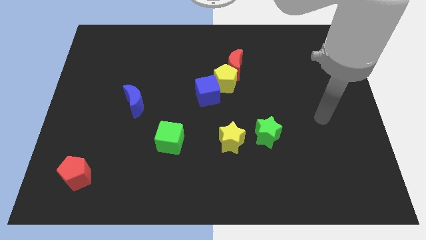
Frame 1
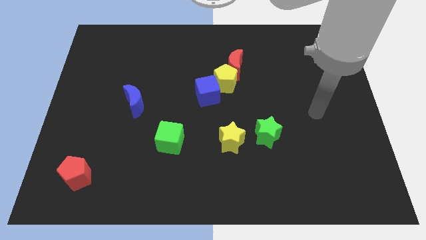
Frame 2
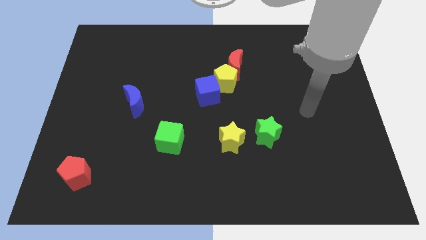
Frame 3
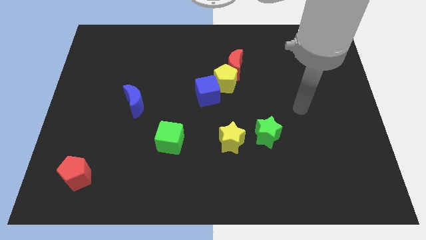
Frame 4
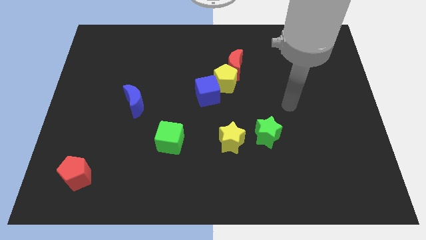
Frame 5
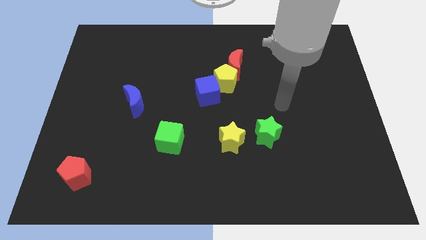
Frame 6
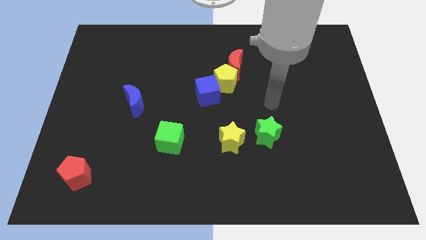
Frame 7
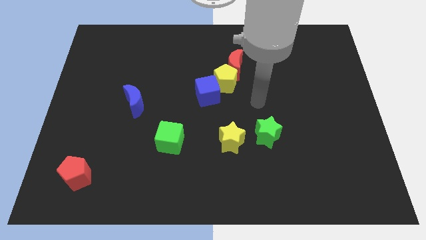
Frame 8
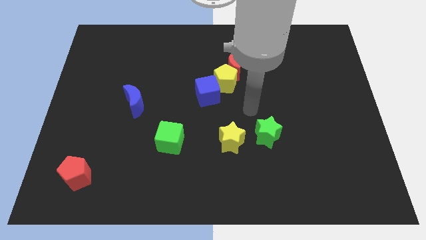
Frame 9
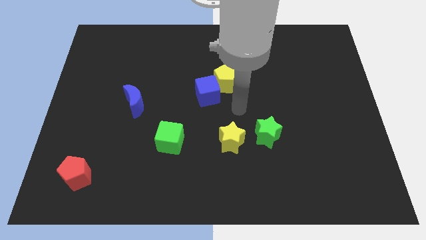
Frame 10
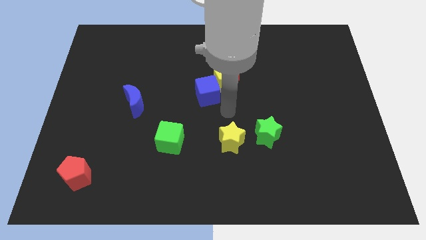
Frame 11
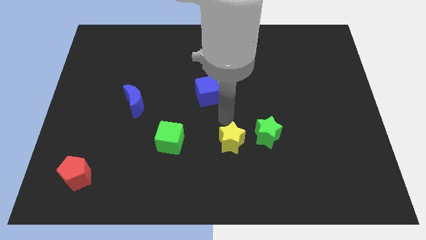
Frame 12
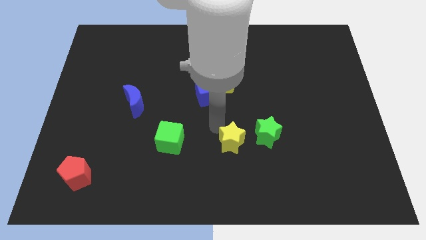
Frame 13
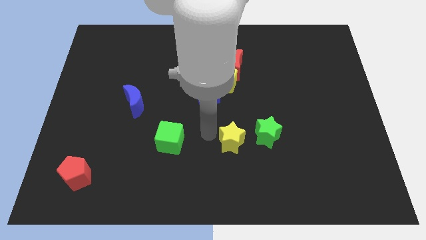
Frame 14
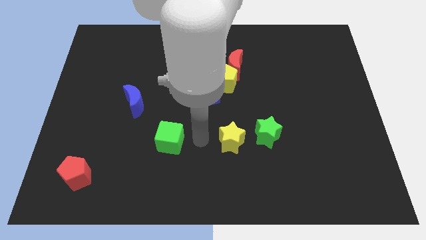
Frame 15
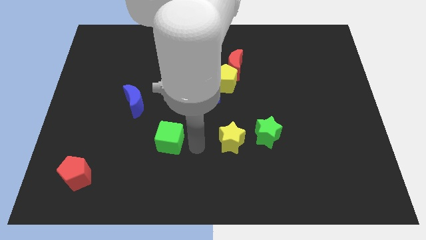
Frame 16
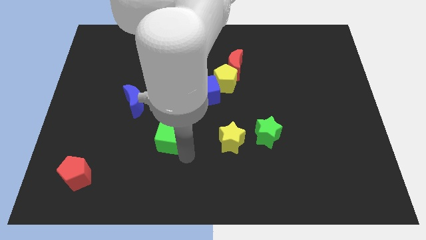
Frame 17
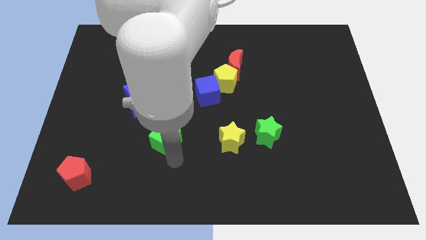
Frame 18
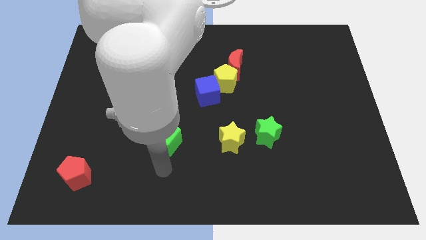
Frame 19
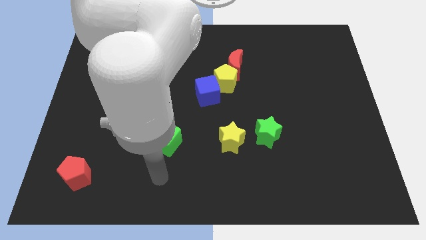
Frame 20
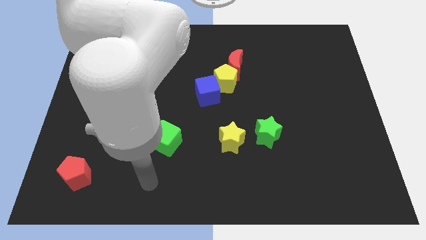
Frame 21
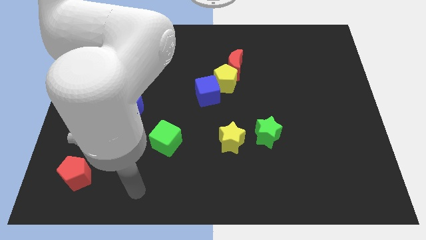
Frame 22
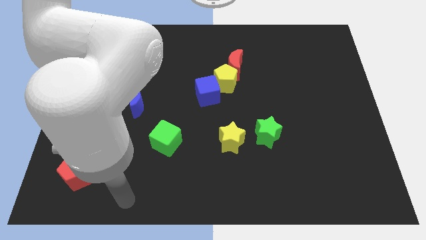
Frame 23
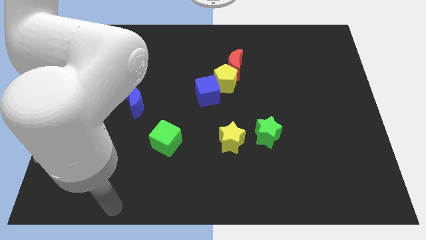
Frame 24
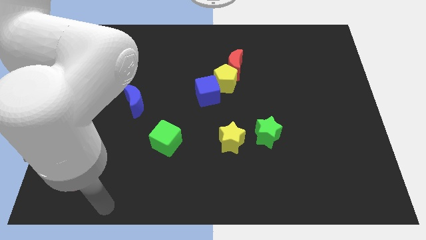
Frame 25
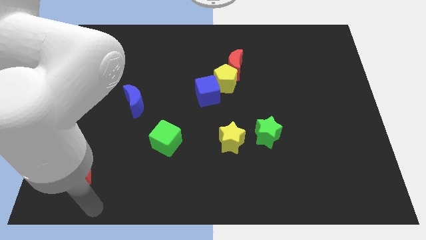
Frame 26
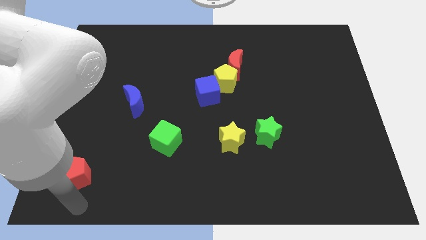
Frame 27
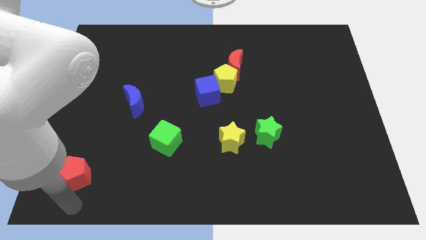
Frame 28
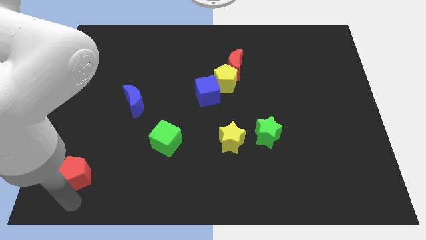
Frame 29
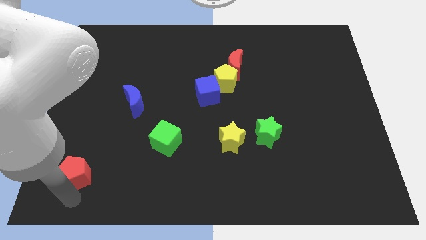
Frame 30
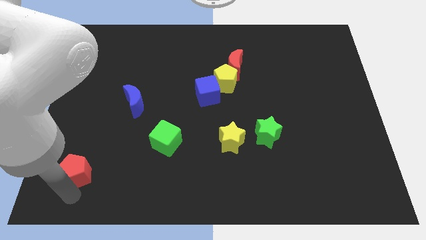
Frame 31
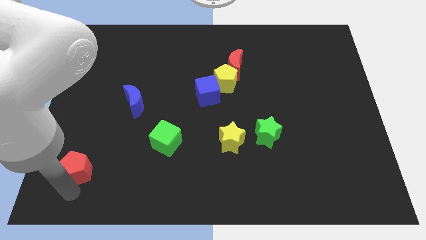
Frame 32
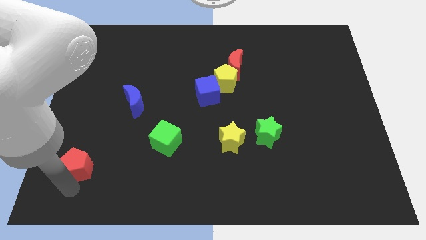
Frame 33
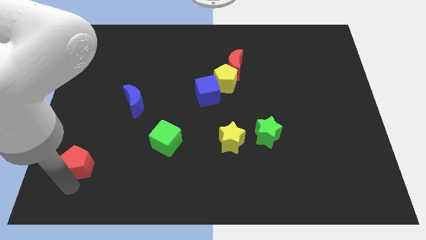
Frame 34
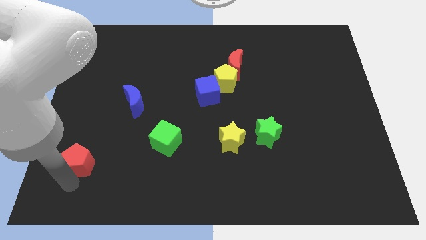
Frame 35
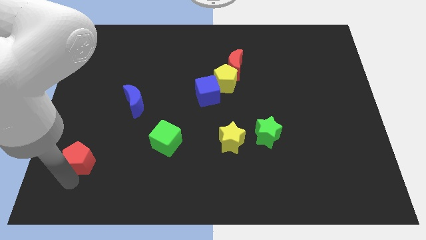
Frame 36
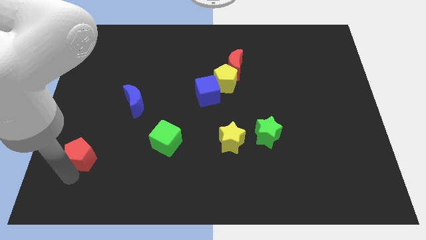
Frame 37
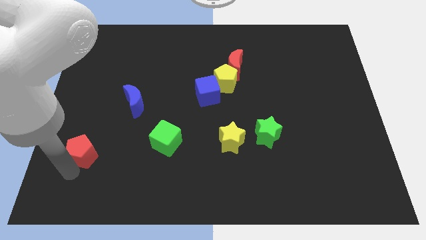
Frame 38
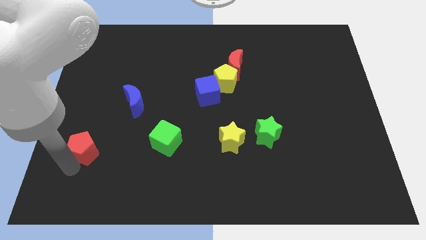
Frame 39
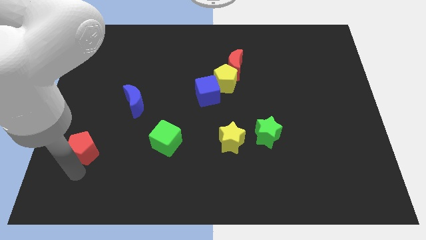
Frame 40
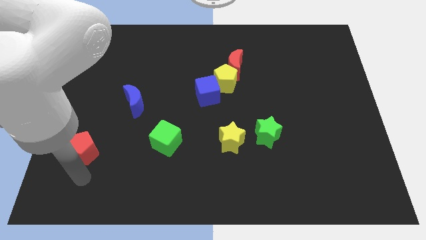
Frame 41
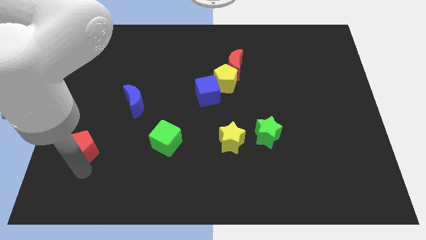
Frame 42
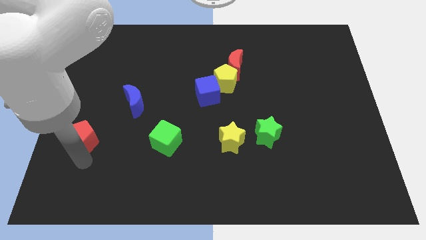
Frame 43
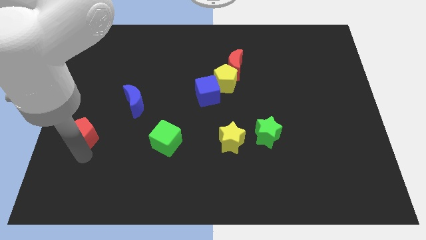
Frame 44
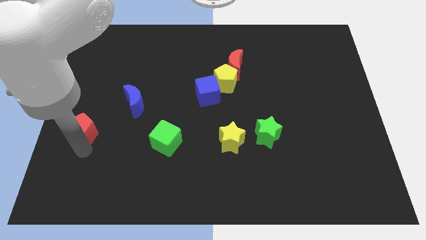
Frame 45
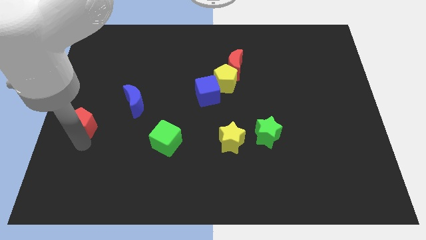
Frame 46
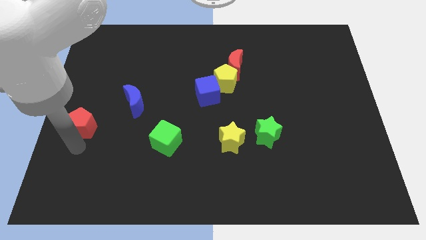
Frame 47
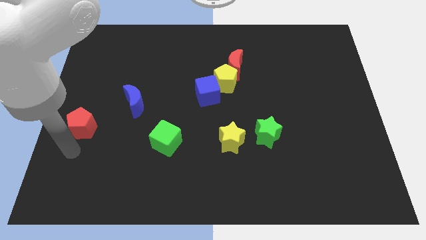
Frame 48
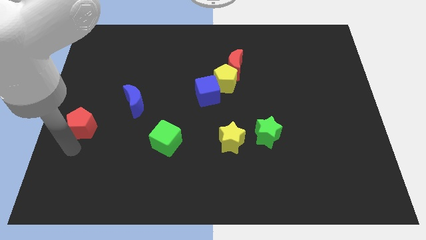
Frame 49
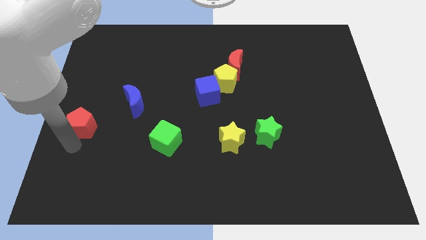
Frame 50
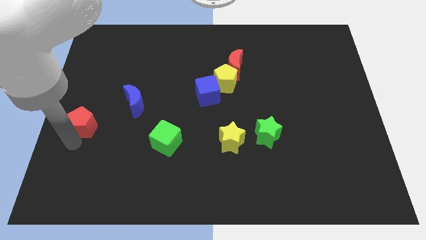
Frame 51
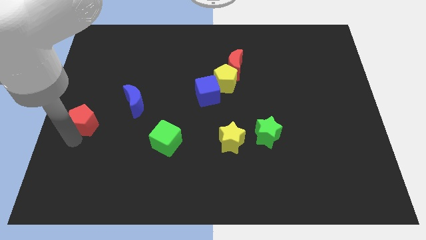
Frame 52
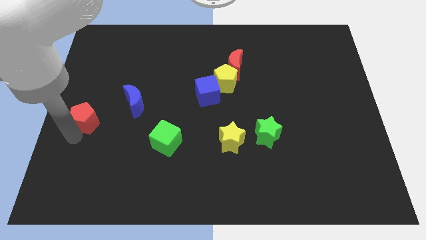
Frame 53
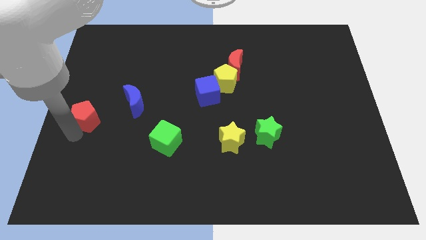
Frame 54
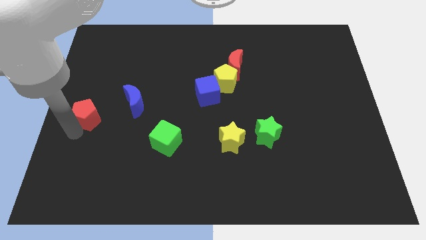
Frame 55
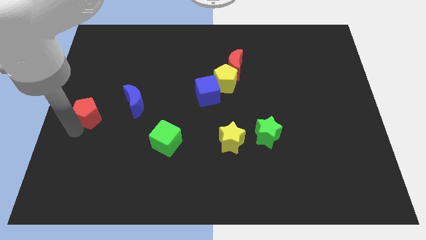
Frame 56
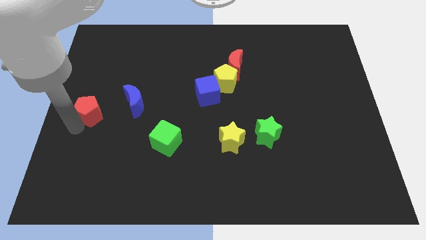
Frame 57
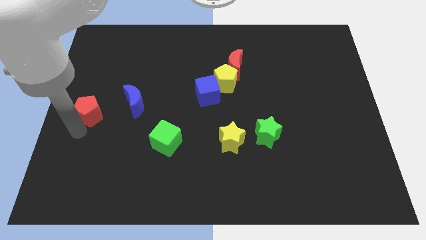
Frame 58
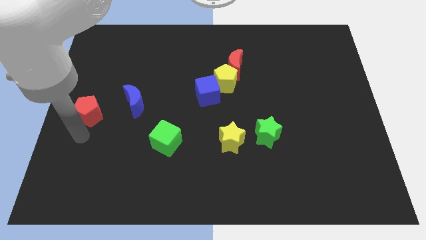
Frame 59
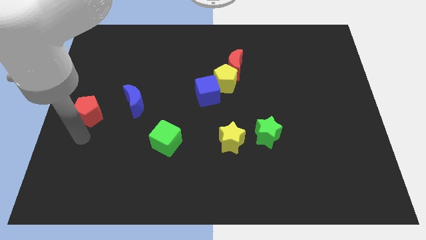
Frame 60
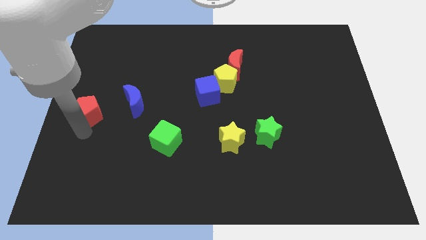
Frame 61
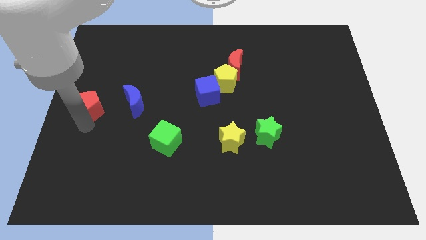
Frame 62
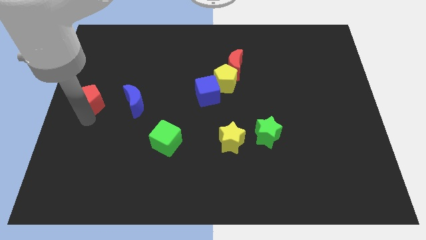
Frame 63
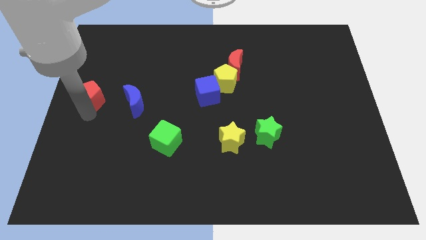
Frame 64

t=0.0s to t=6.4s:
move the red pentagon upwards

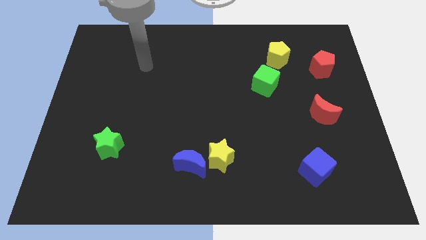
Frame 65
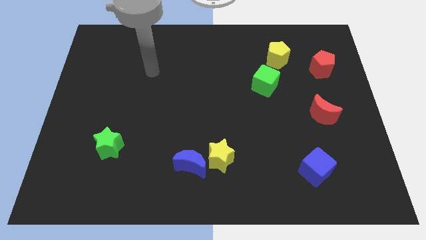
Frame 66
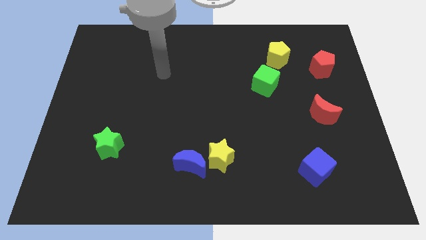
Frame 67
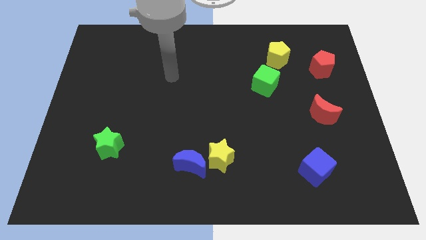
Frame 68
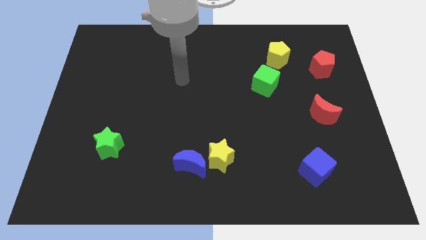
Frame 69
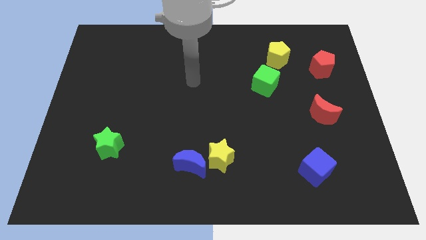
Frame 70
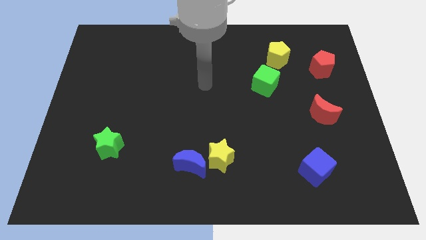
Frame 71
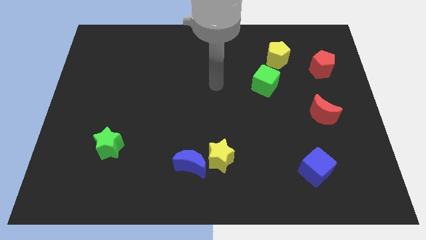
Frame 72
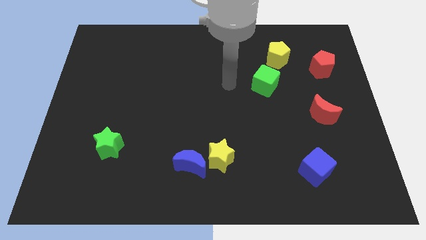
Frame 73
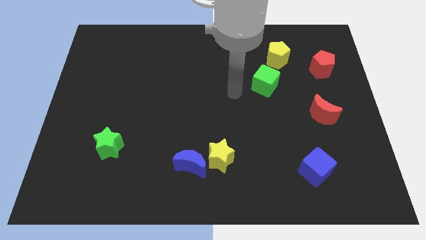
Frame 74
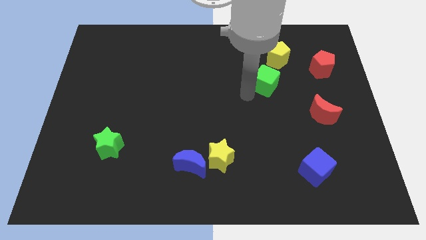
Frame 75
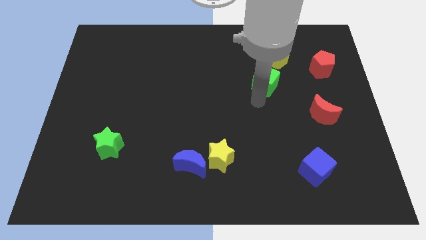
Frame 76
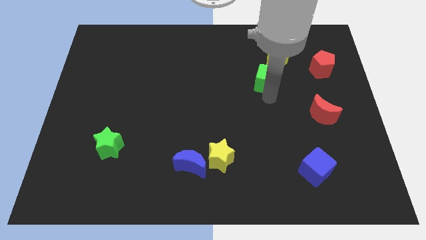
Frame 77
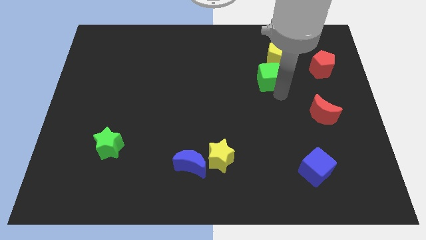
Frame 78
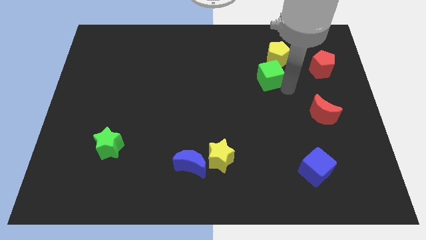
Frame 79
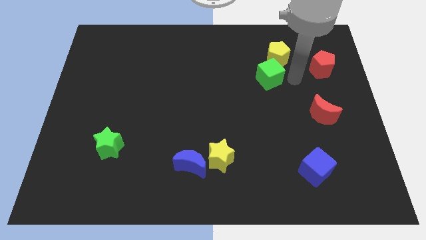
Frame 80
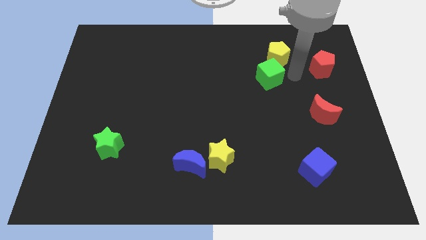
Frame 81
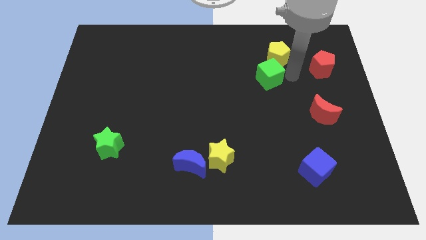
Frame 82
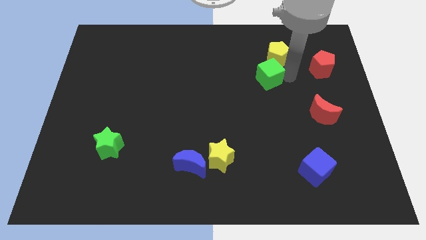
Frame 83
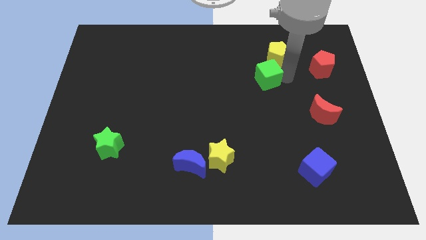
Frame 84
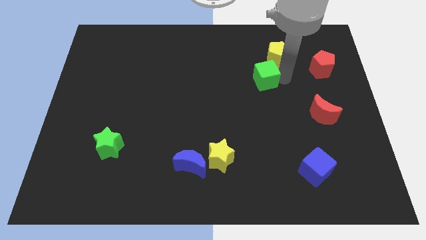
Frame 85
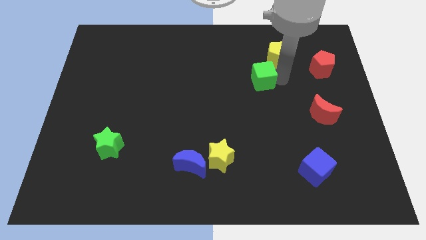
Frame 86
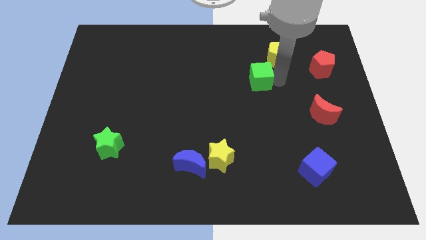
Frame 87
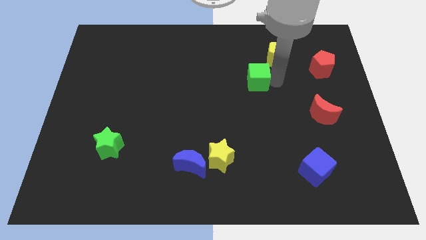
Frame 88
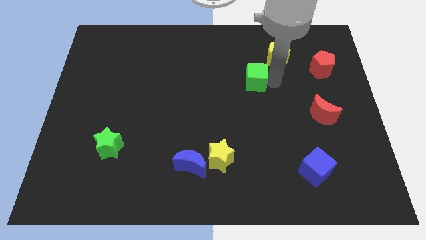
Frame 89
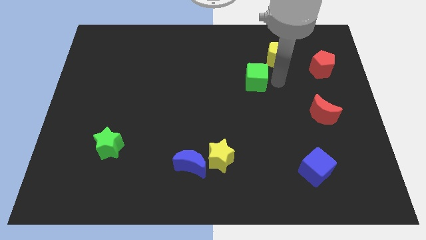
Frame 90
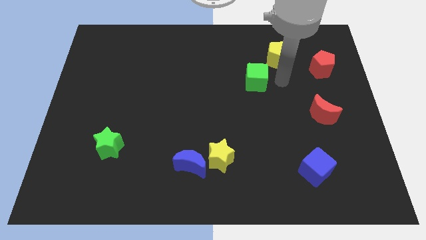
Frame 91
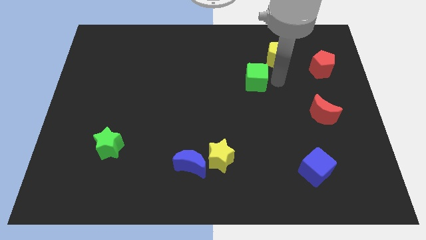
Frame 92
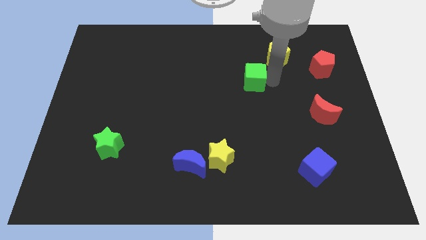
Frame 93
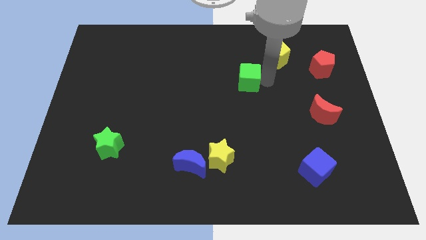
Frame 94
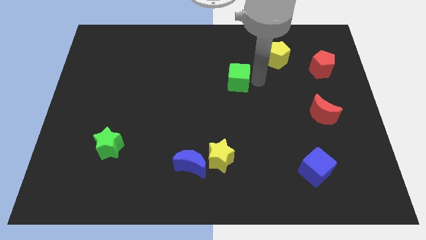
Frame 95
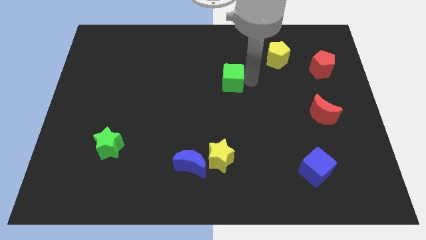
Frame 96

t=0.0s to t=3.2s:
slide the green cube left a bit
